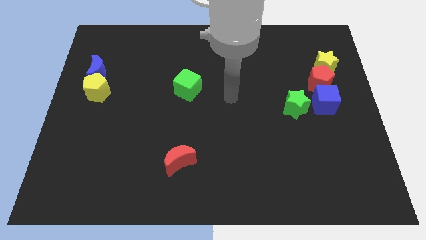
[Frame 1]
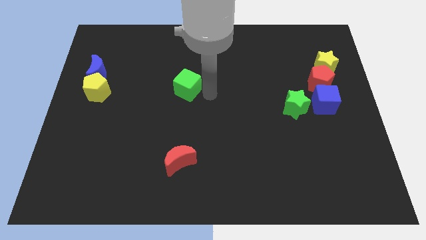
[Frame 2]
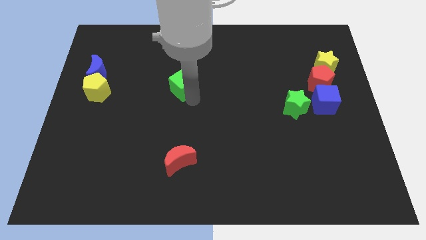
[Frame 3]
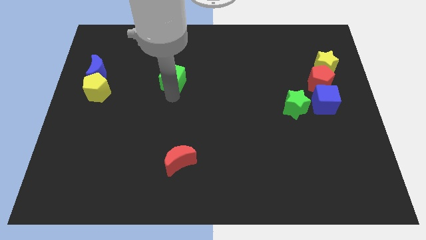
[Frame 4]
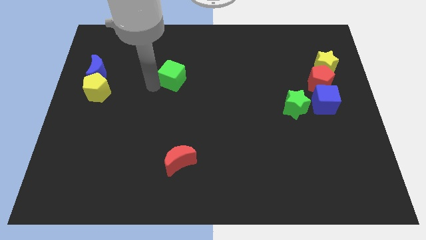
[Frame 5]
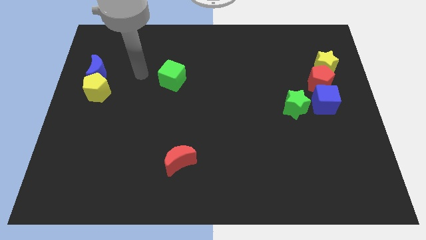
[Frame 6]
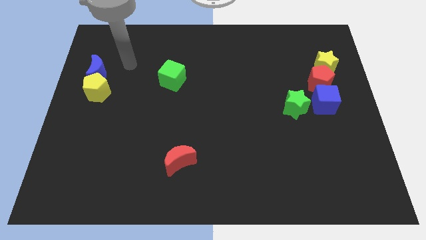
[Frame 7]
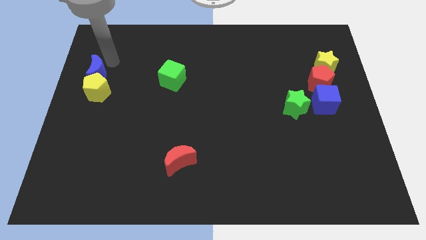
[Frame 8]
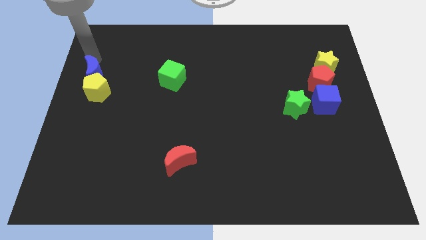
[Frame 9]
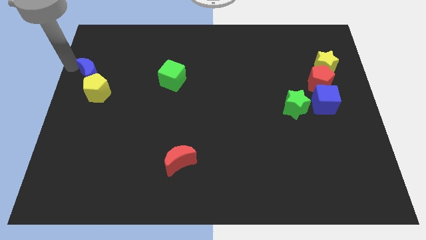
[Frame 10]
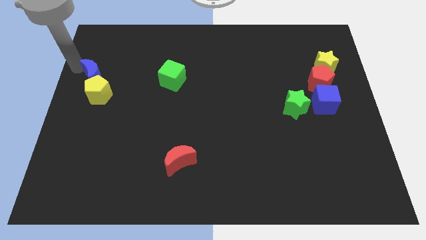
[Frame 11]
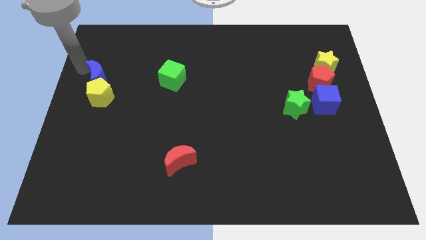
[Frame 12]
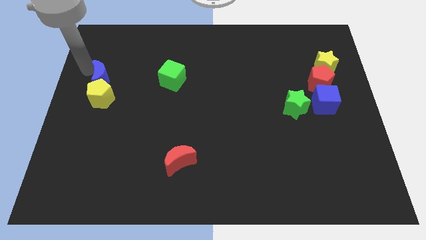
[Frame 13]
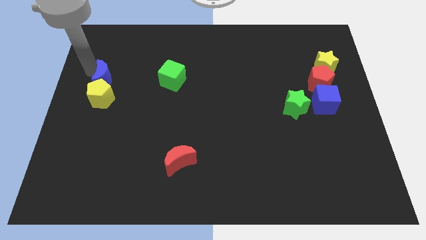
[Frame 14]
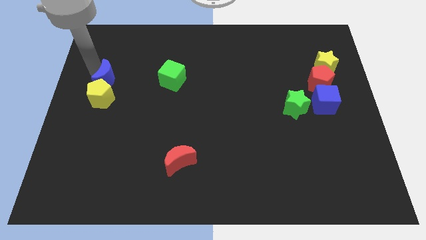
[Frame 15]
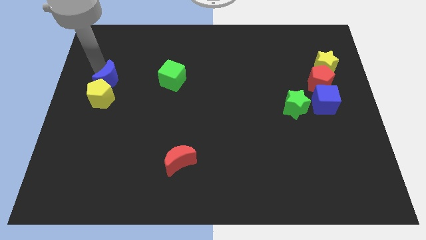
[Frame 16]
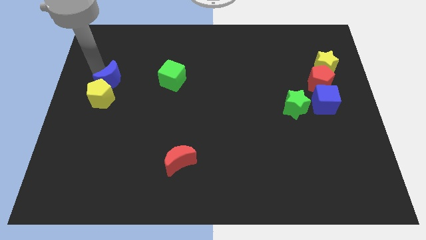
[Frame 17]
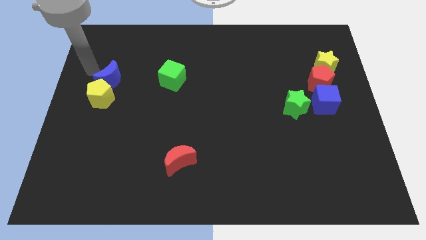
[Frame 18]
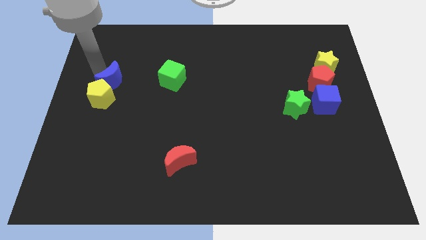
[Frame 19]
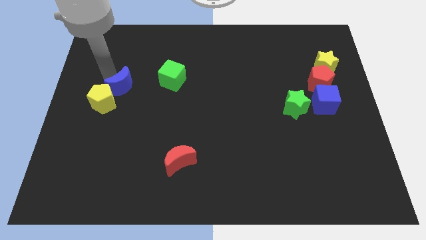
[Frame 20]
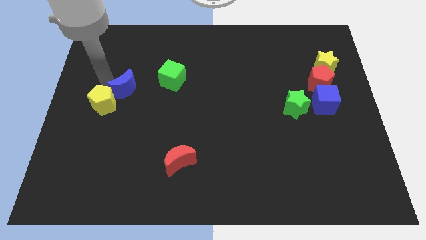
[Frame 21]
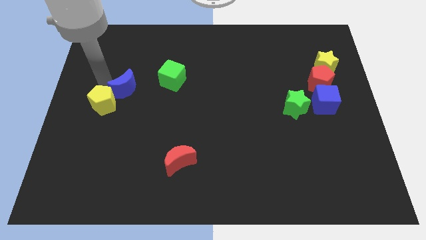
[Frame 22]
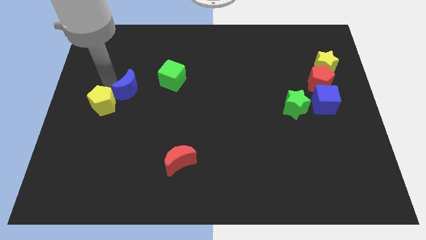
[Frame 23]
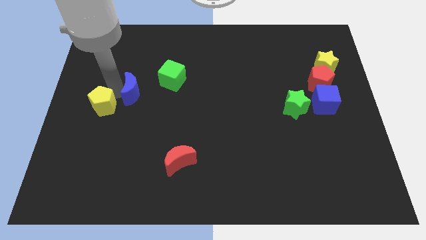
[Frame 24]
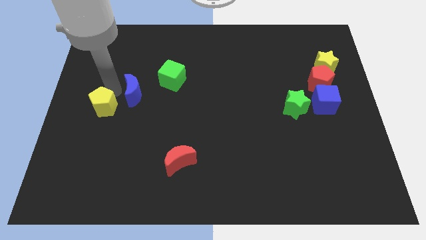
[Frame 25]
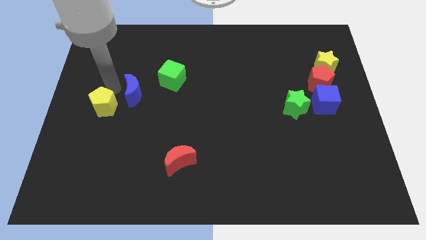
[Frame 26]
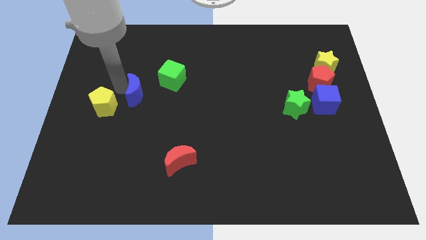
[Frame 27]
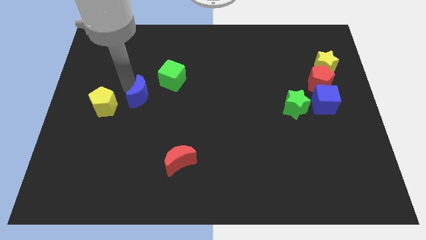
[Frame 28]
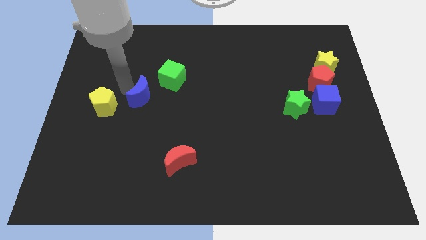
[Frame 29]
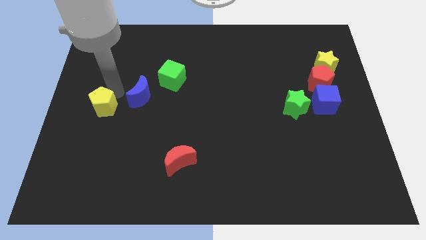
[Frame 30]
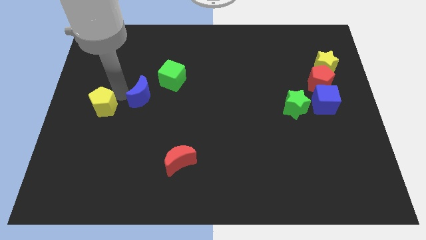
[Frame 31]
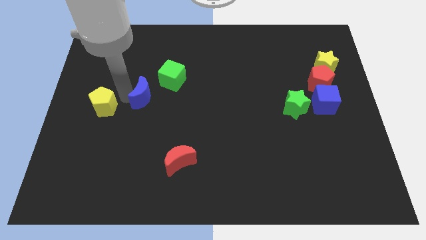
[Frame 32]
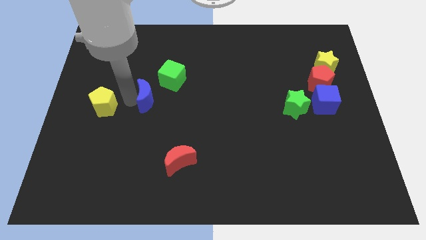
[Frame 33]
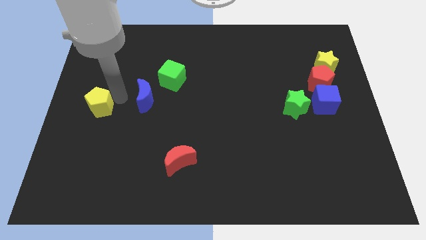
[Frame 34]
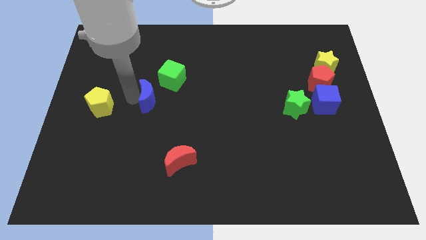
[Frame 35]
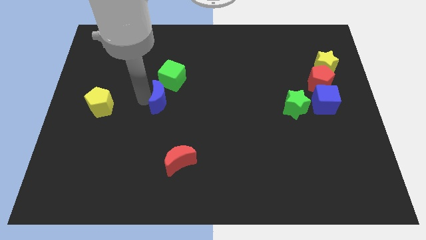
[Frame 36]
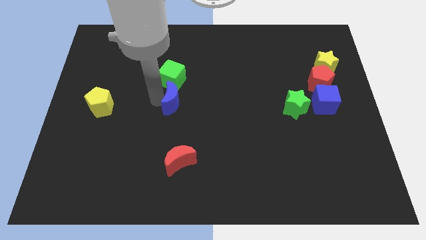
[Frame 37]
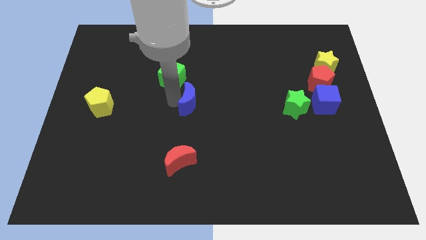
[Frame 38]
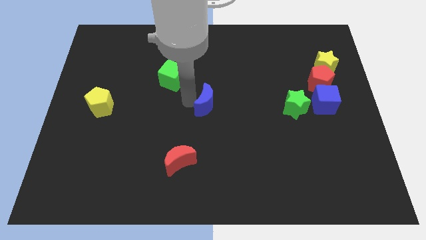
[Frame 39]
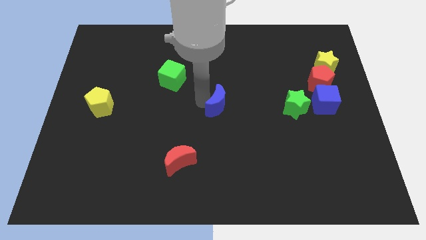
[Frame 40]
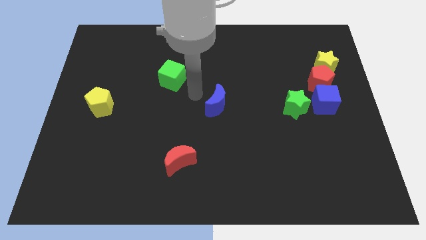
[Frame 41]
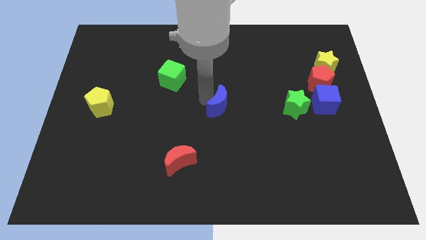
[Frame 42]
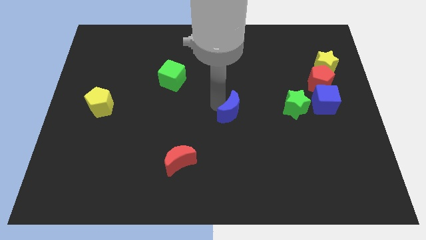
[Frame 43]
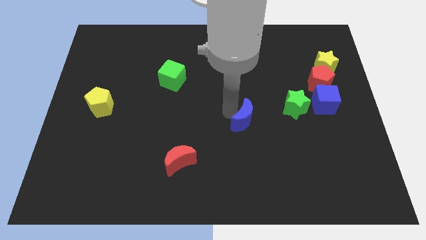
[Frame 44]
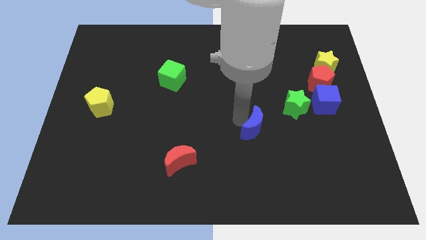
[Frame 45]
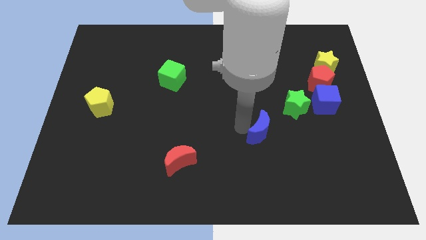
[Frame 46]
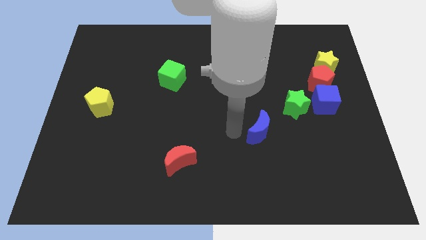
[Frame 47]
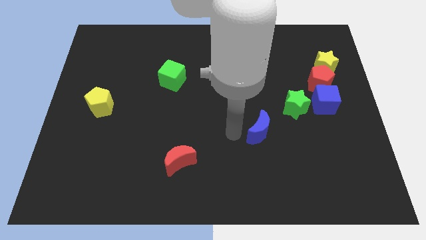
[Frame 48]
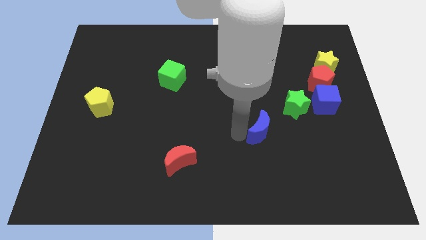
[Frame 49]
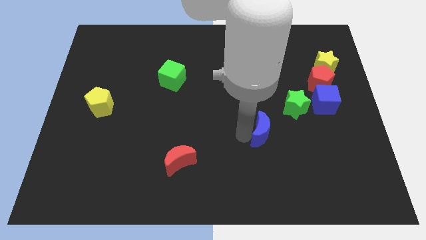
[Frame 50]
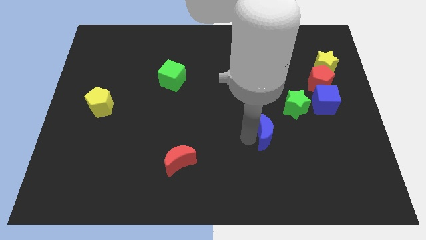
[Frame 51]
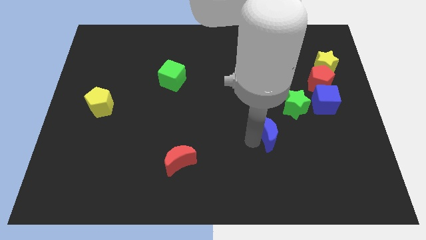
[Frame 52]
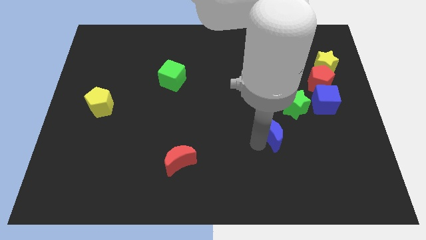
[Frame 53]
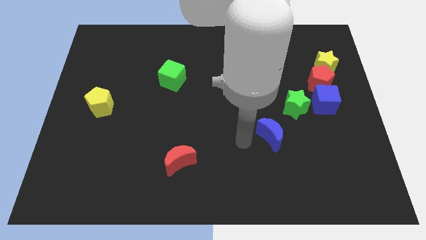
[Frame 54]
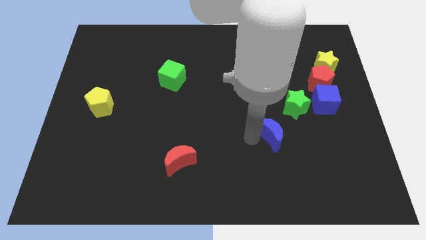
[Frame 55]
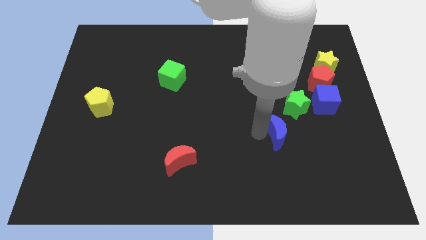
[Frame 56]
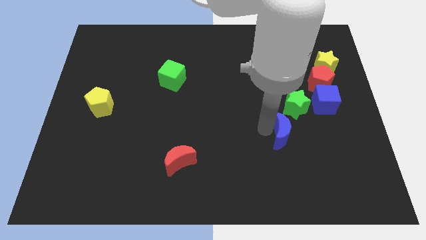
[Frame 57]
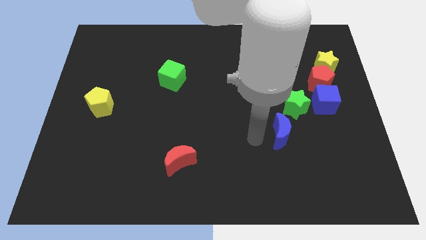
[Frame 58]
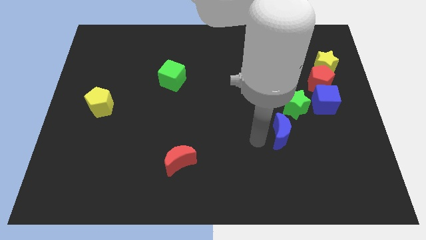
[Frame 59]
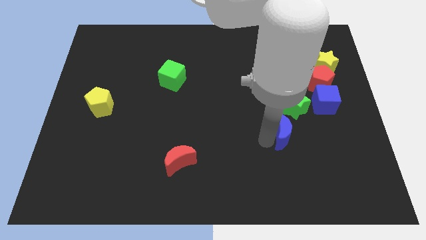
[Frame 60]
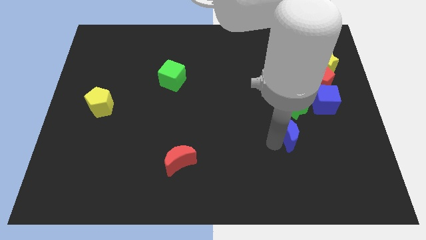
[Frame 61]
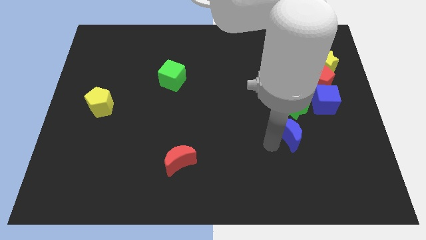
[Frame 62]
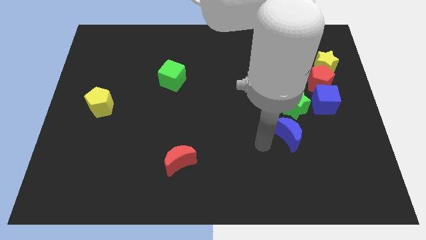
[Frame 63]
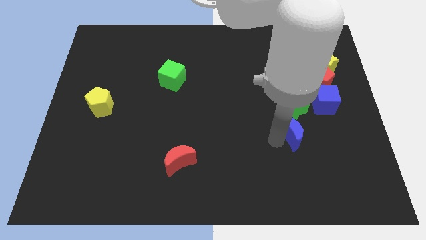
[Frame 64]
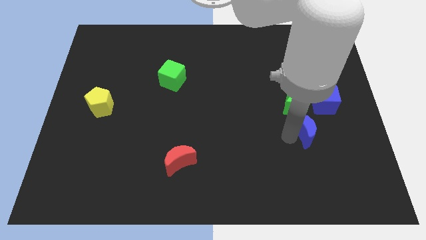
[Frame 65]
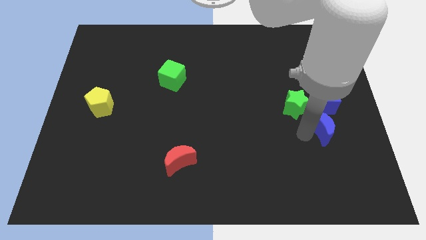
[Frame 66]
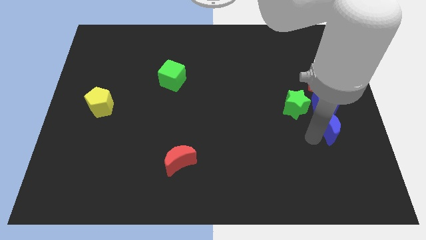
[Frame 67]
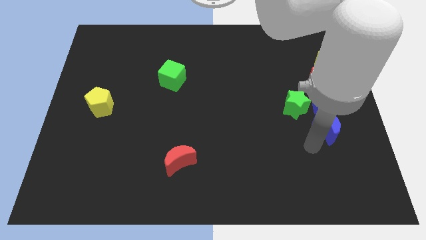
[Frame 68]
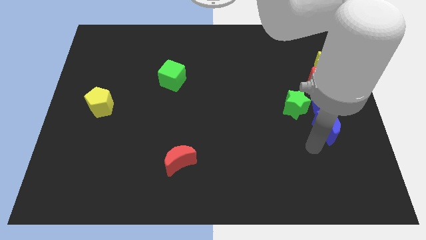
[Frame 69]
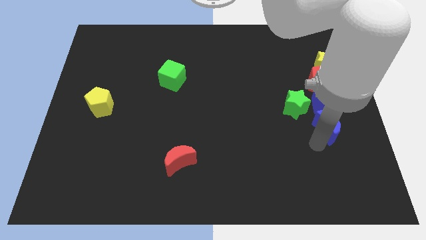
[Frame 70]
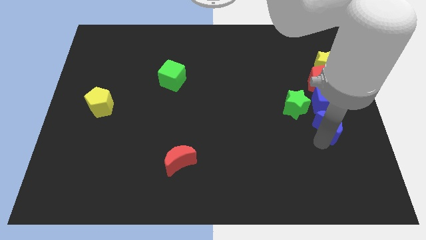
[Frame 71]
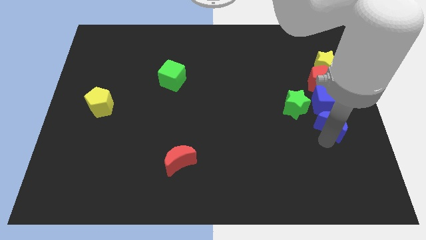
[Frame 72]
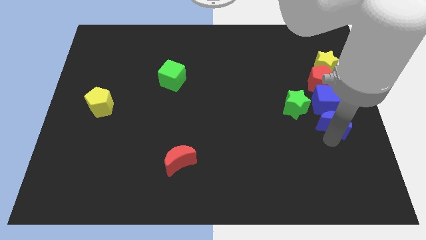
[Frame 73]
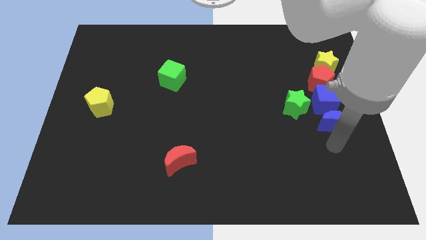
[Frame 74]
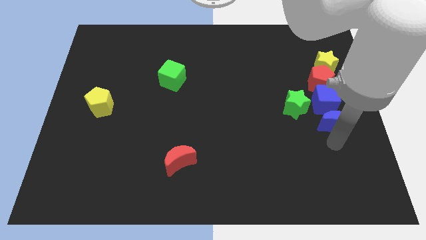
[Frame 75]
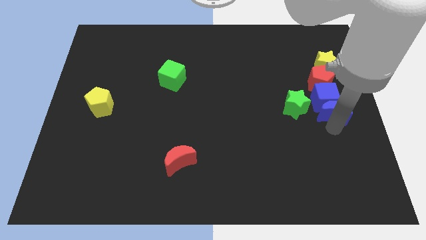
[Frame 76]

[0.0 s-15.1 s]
slide the blue moon to the bottom of the yellow star
